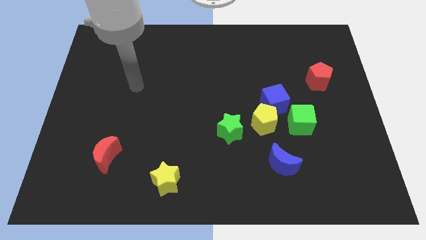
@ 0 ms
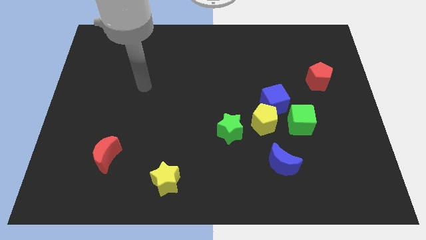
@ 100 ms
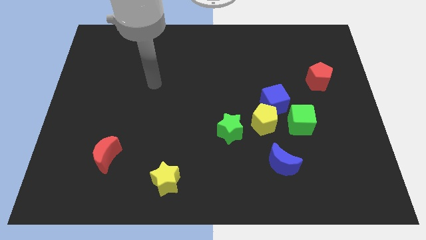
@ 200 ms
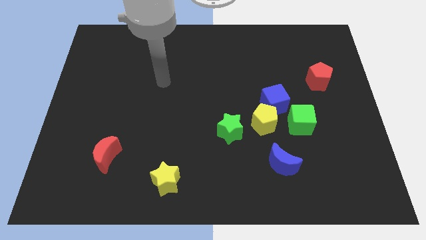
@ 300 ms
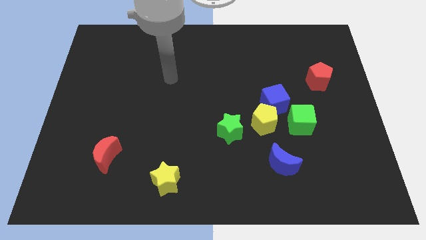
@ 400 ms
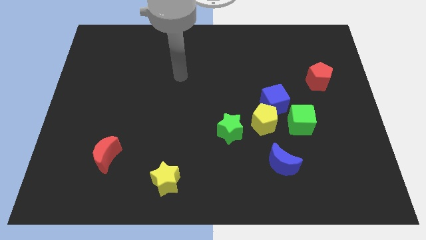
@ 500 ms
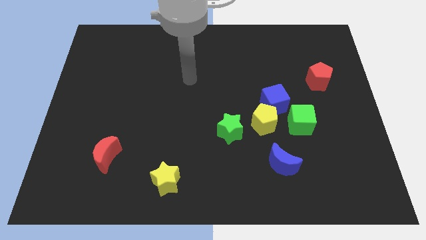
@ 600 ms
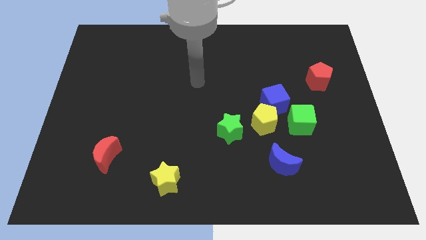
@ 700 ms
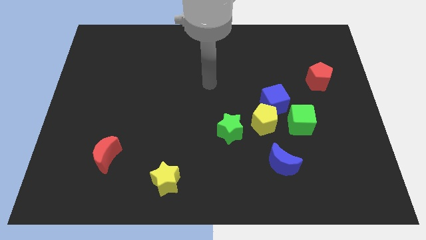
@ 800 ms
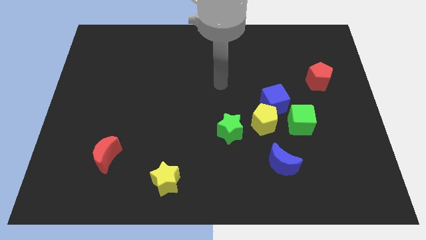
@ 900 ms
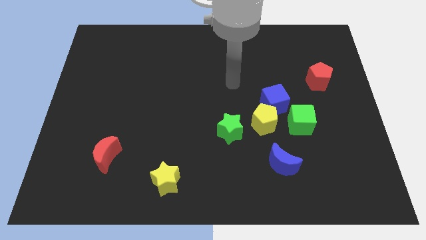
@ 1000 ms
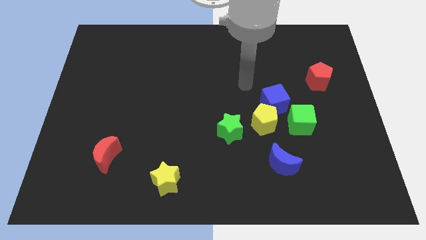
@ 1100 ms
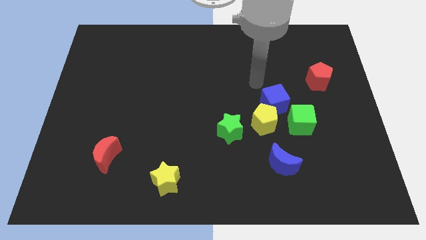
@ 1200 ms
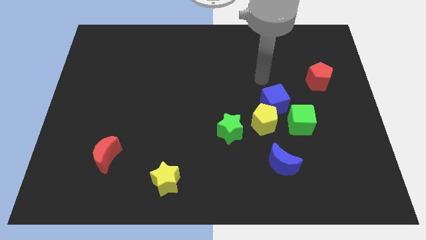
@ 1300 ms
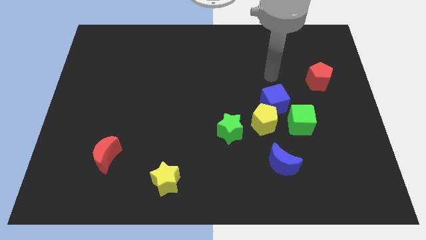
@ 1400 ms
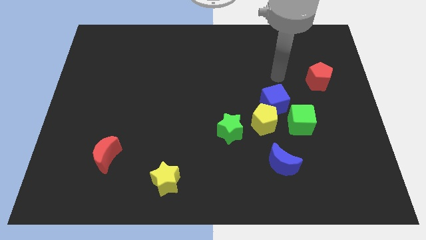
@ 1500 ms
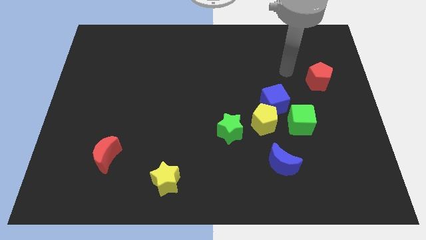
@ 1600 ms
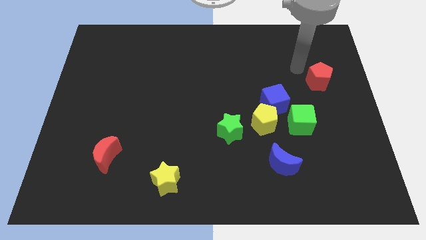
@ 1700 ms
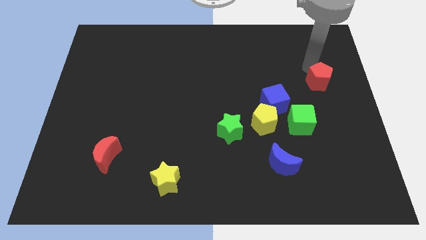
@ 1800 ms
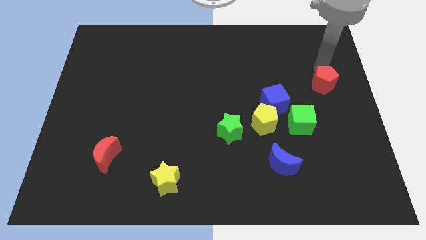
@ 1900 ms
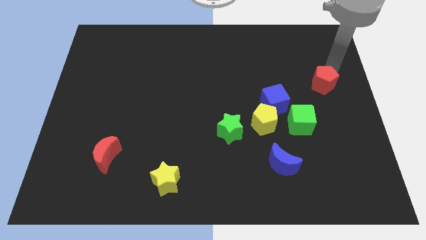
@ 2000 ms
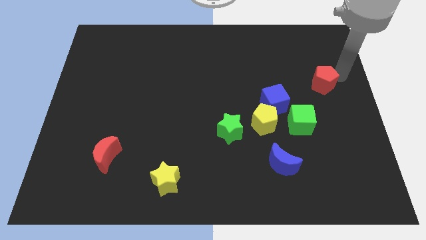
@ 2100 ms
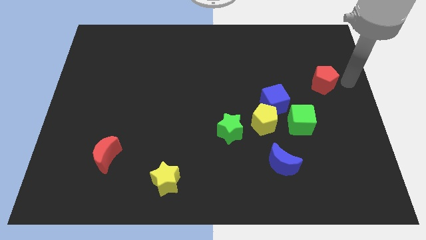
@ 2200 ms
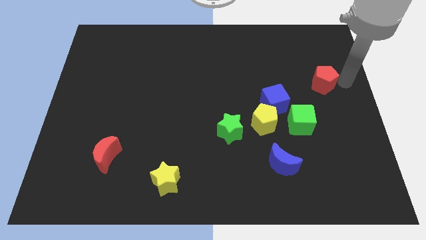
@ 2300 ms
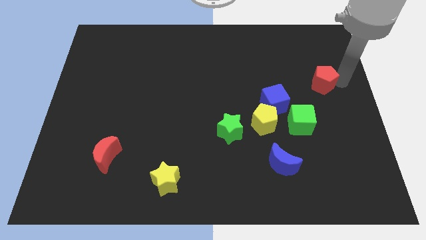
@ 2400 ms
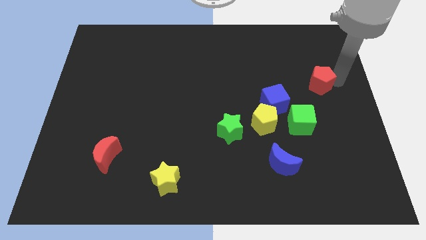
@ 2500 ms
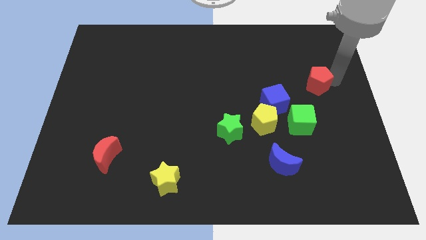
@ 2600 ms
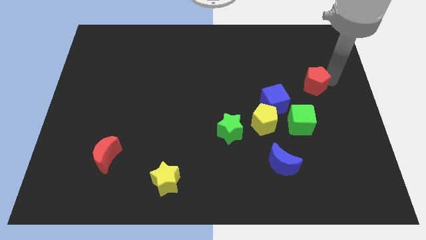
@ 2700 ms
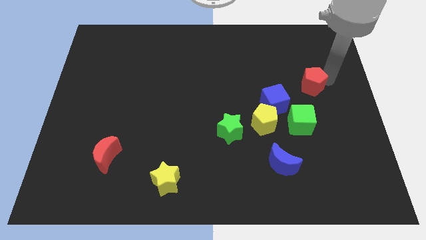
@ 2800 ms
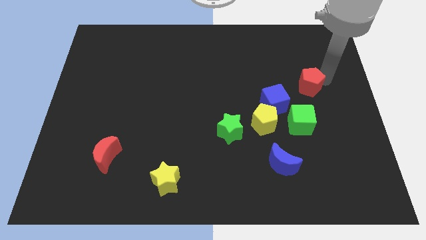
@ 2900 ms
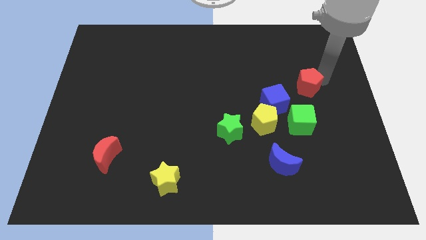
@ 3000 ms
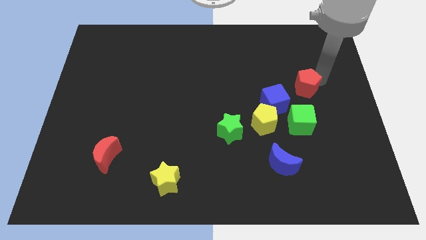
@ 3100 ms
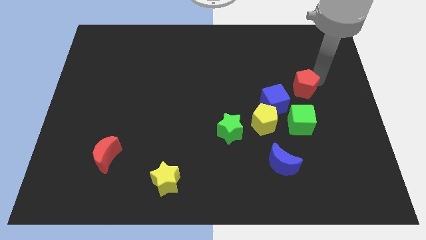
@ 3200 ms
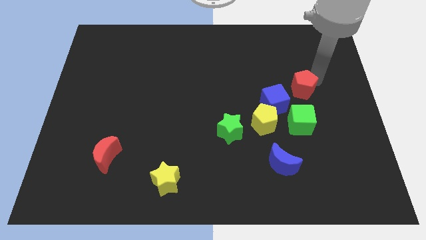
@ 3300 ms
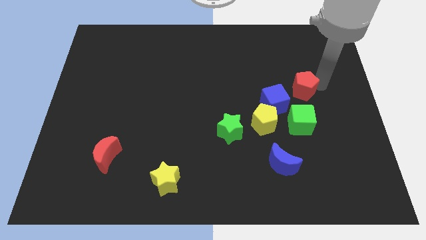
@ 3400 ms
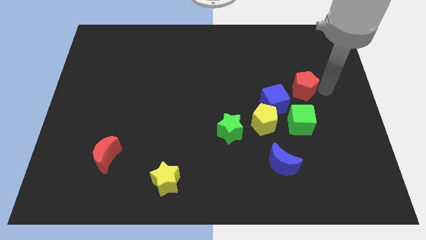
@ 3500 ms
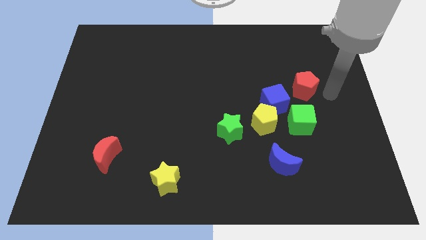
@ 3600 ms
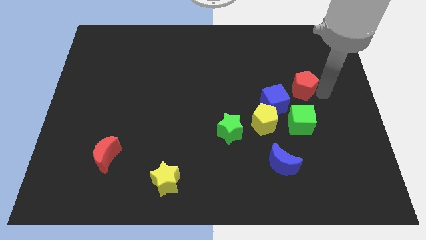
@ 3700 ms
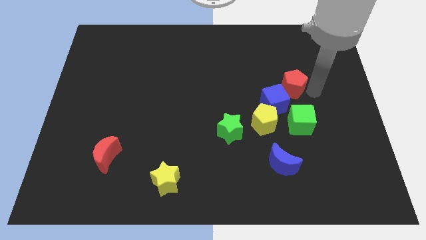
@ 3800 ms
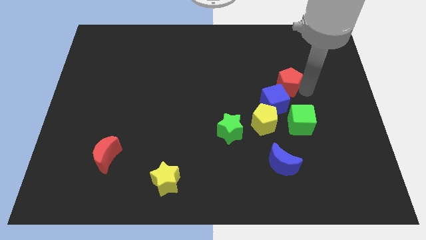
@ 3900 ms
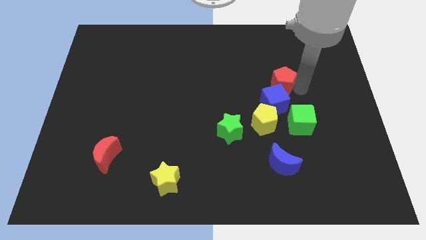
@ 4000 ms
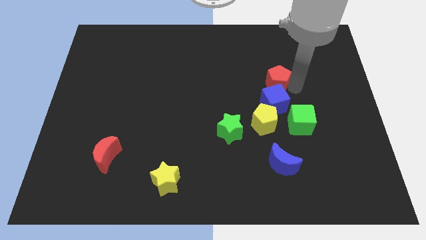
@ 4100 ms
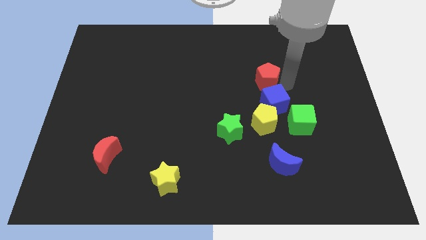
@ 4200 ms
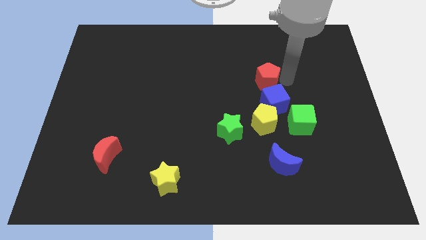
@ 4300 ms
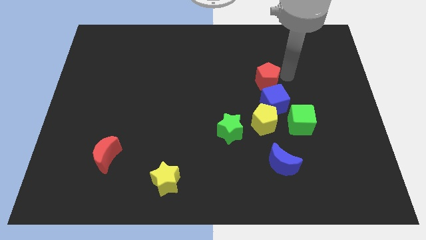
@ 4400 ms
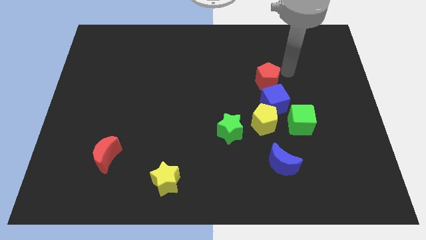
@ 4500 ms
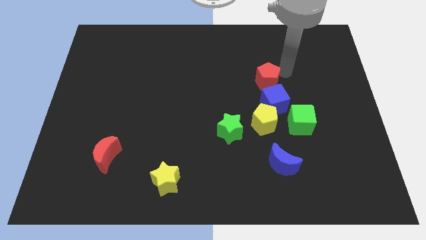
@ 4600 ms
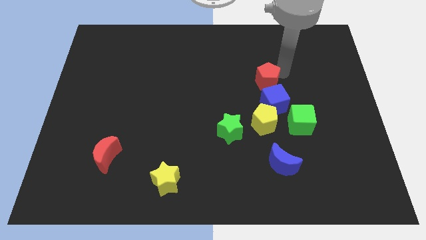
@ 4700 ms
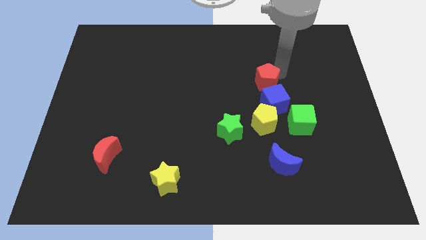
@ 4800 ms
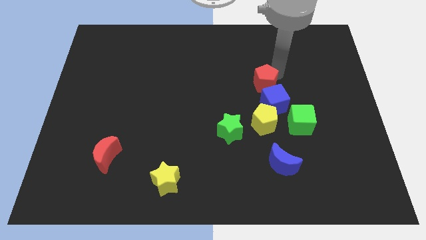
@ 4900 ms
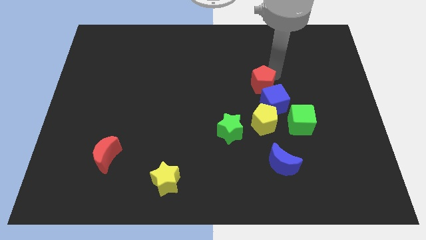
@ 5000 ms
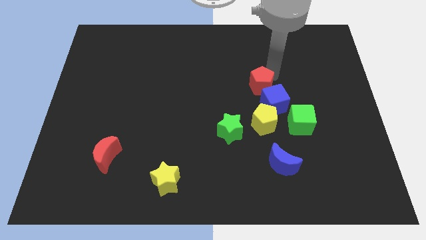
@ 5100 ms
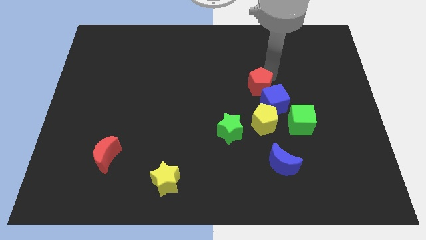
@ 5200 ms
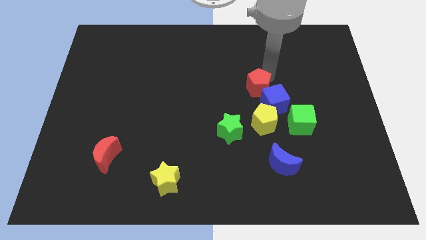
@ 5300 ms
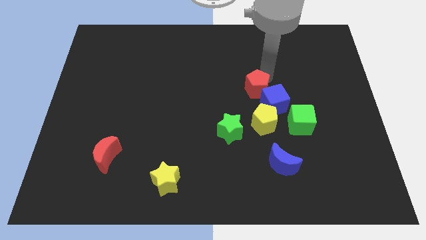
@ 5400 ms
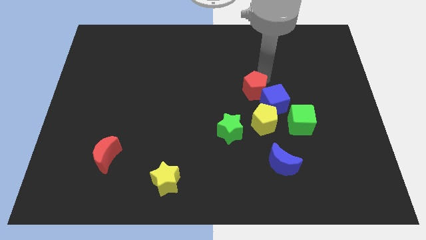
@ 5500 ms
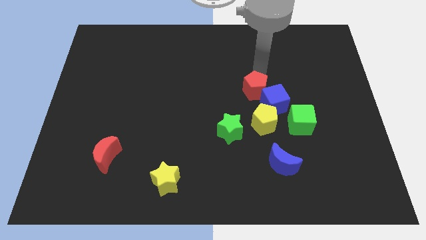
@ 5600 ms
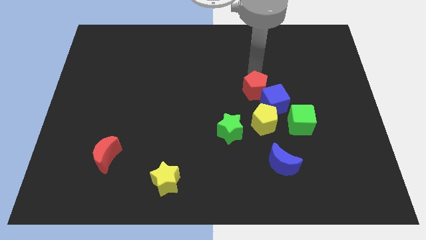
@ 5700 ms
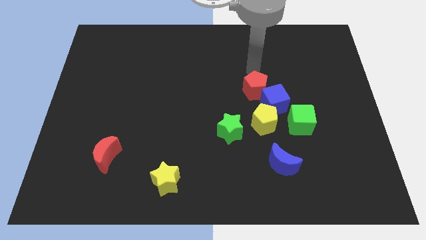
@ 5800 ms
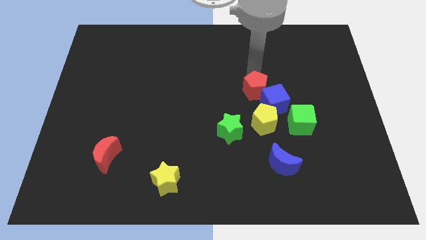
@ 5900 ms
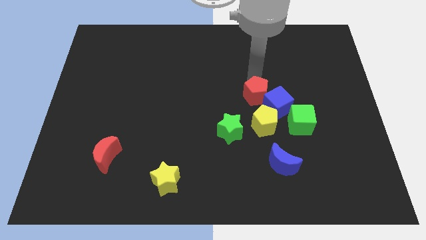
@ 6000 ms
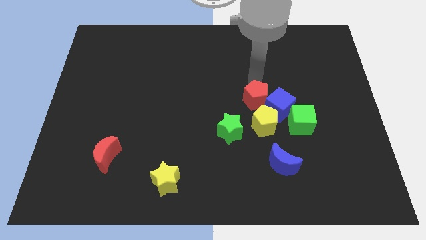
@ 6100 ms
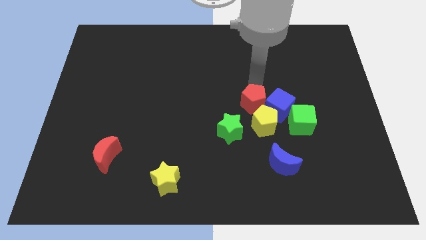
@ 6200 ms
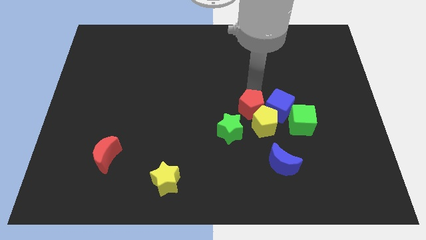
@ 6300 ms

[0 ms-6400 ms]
move the red pentagon towards the yellow pentagon
